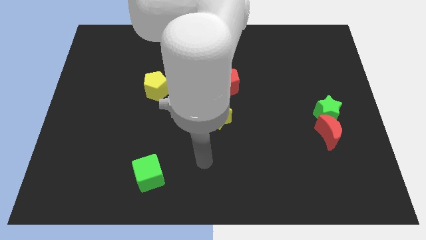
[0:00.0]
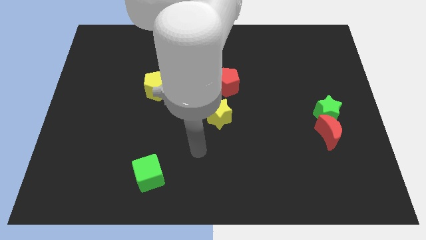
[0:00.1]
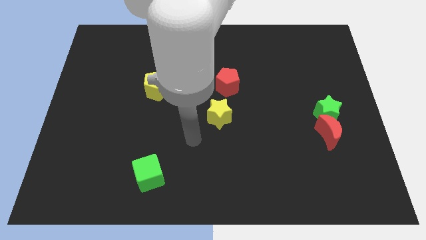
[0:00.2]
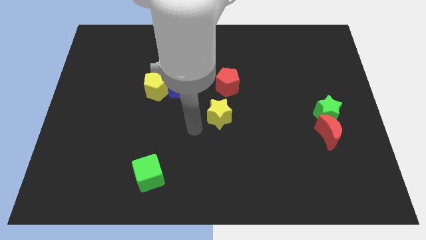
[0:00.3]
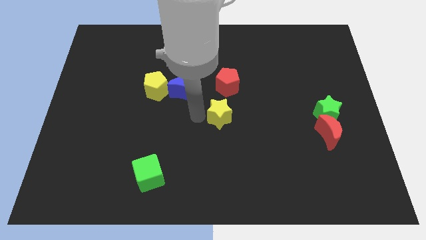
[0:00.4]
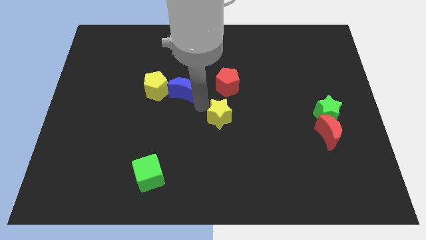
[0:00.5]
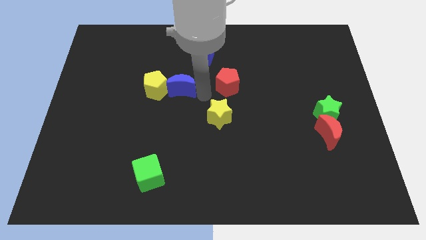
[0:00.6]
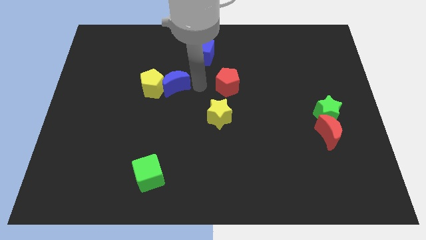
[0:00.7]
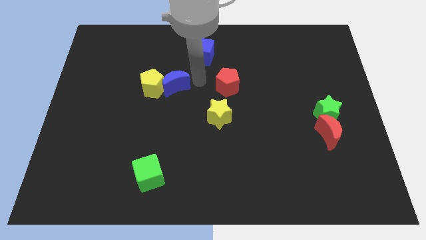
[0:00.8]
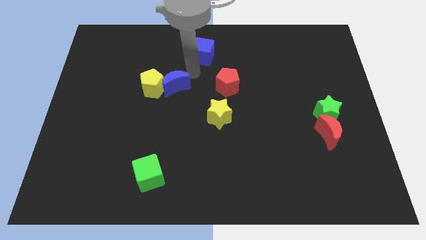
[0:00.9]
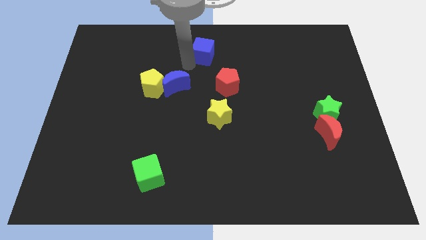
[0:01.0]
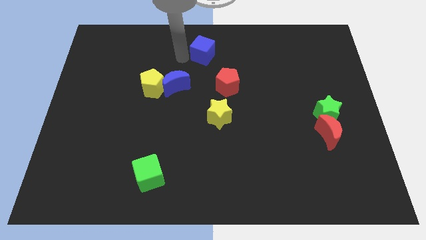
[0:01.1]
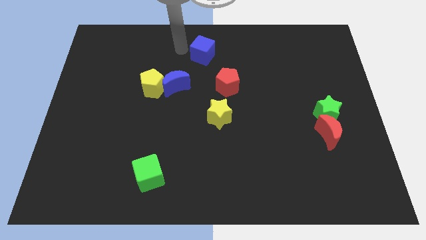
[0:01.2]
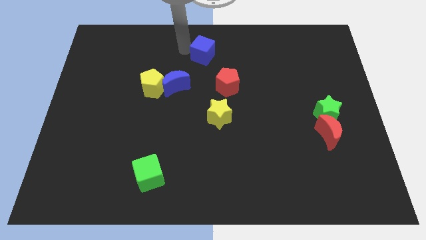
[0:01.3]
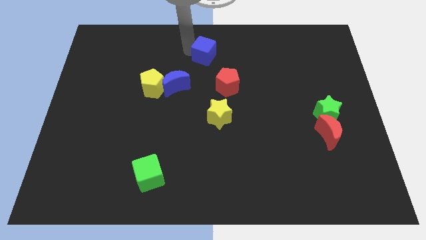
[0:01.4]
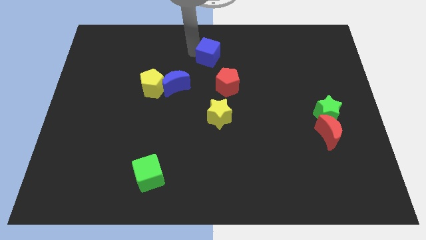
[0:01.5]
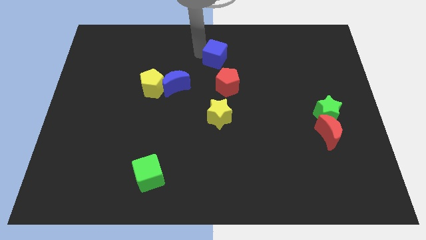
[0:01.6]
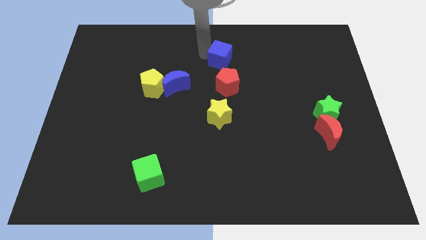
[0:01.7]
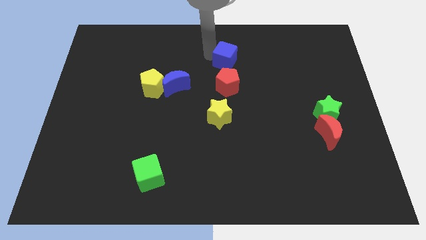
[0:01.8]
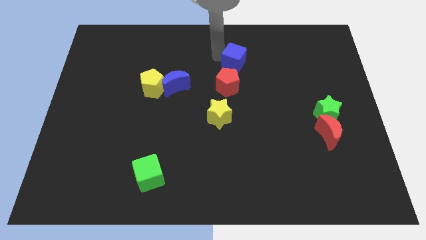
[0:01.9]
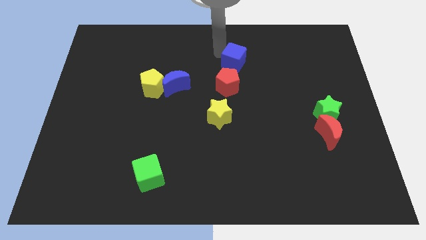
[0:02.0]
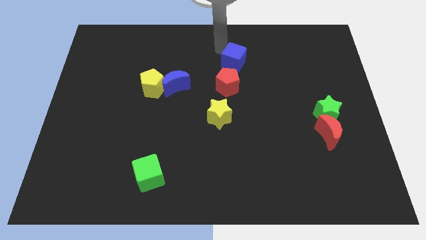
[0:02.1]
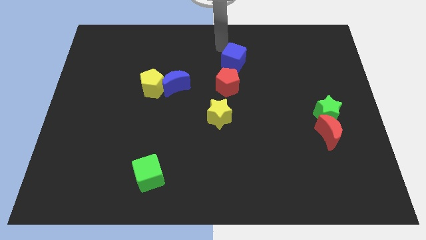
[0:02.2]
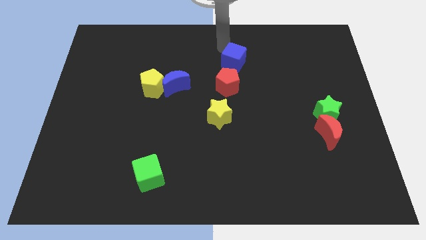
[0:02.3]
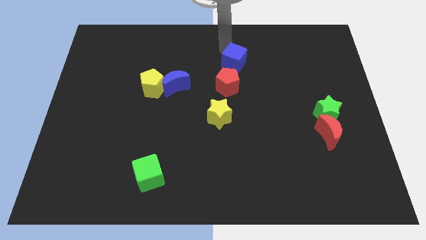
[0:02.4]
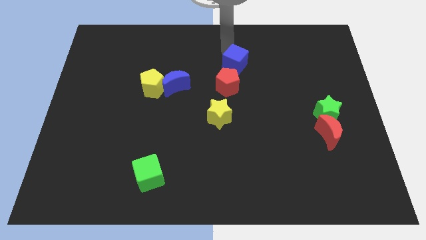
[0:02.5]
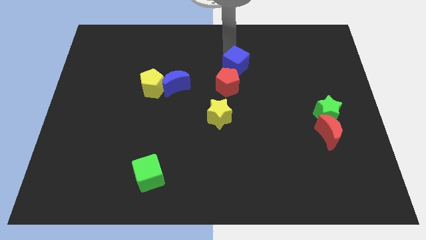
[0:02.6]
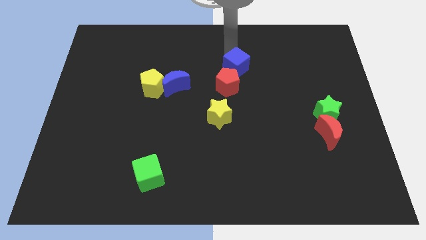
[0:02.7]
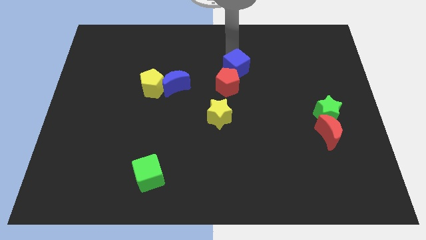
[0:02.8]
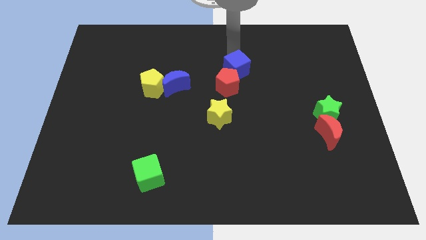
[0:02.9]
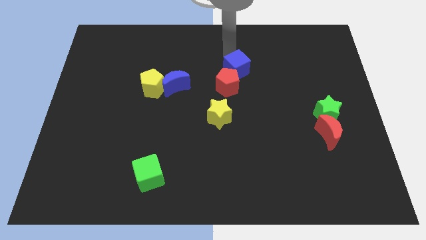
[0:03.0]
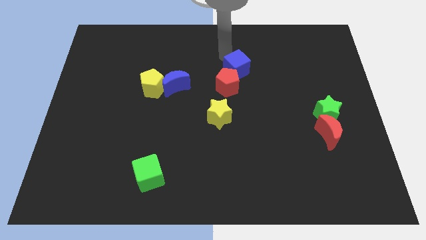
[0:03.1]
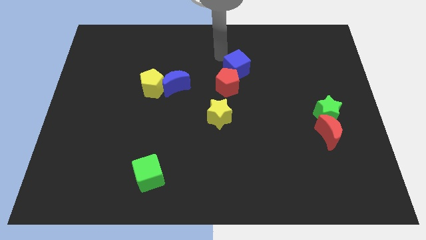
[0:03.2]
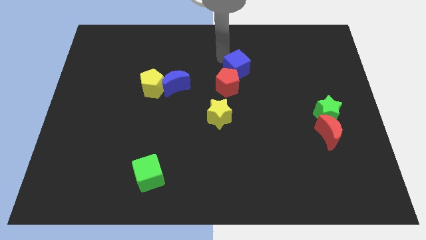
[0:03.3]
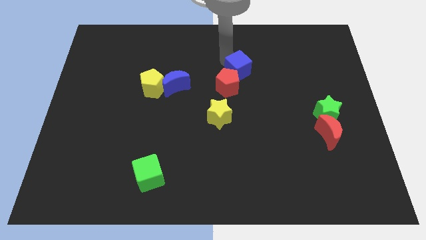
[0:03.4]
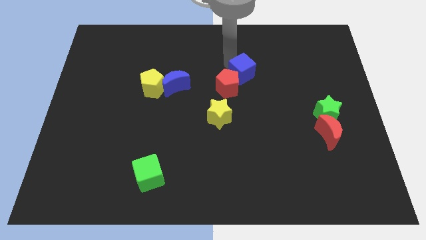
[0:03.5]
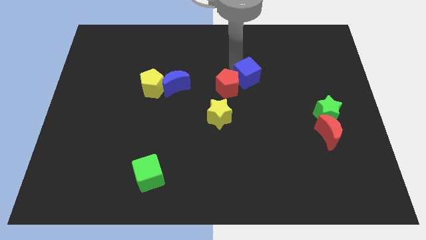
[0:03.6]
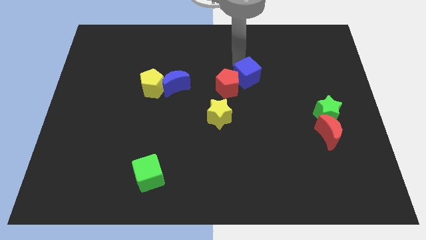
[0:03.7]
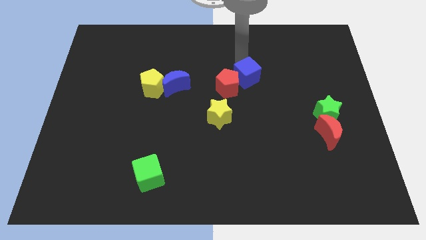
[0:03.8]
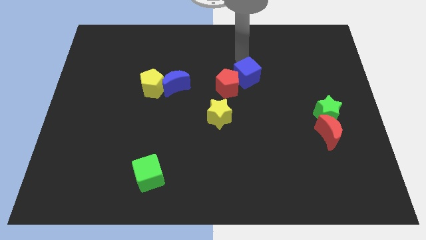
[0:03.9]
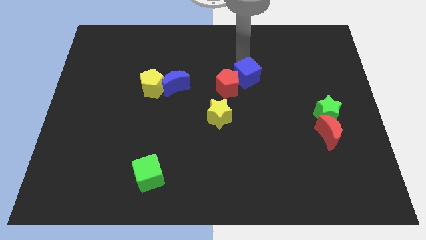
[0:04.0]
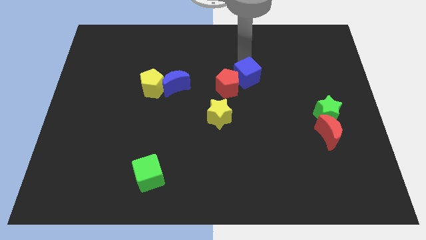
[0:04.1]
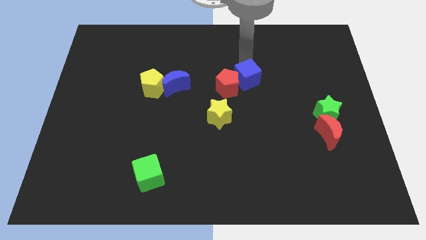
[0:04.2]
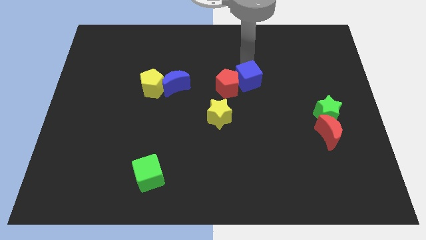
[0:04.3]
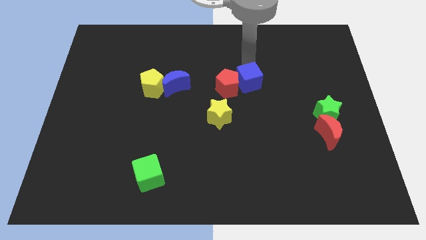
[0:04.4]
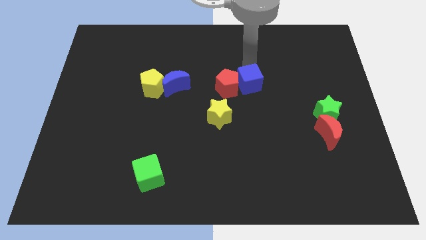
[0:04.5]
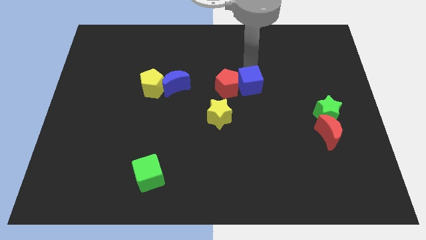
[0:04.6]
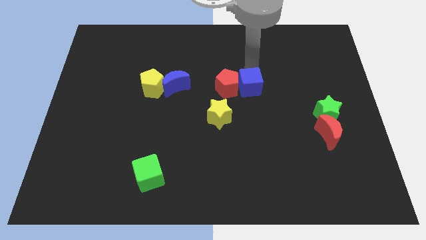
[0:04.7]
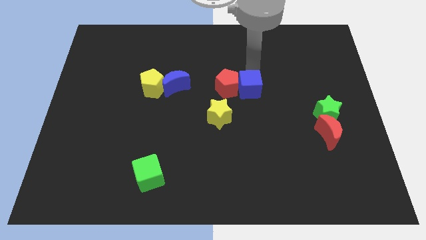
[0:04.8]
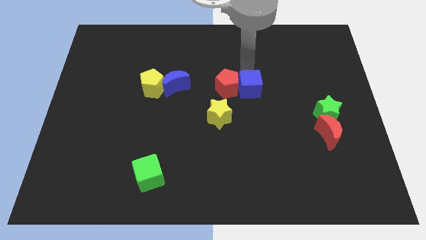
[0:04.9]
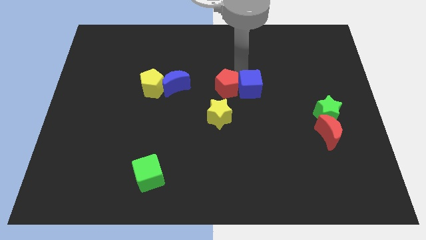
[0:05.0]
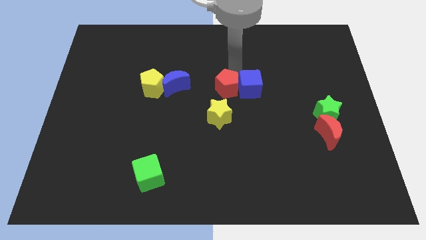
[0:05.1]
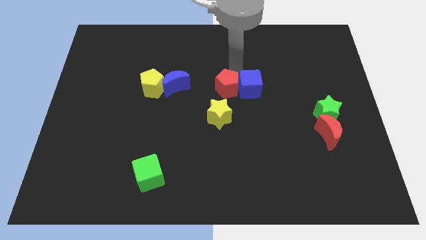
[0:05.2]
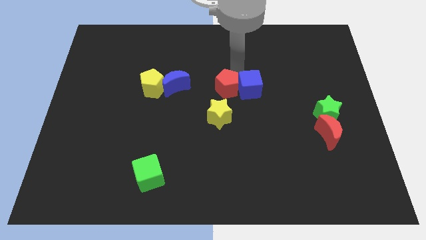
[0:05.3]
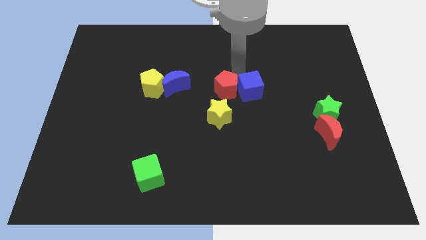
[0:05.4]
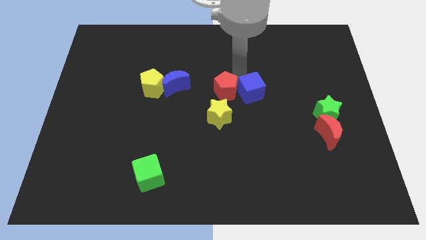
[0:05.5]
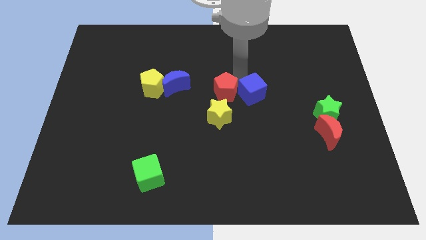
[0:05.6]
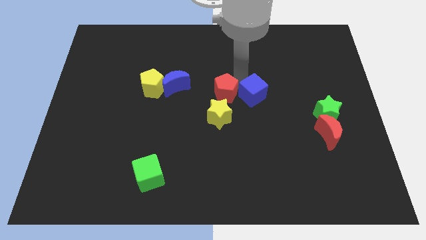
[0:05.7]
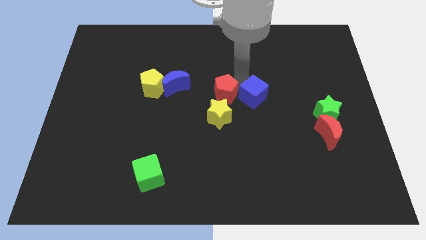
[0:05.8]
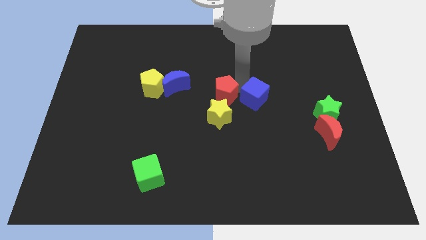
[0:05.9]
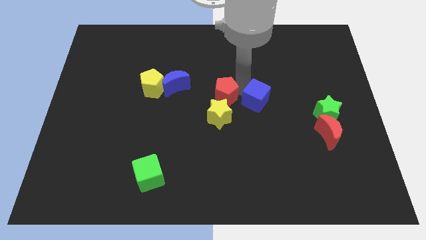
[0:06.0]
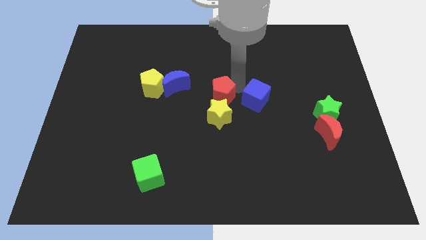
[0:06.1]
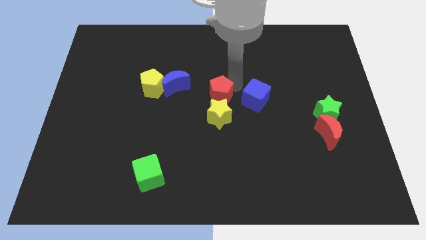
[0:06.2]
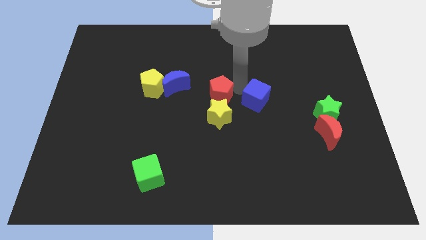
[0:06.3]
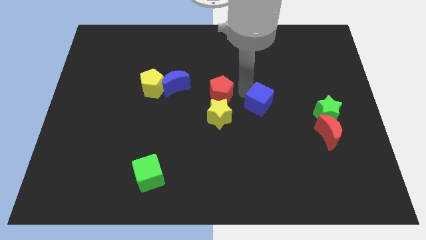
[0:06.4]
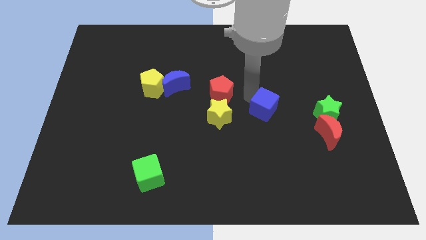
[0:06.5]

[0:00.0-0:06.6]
move the blue cube to the left of the green star

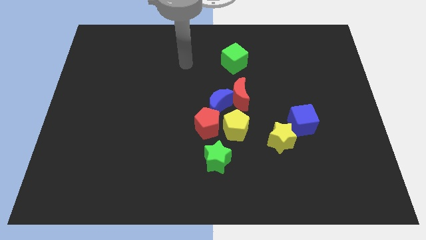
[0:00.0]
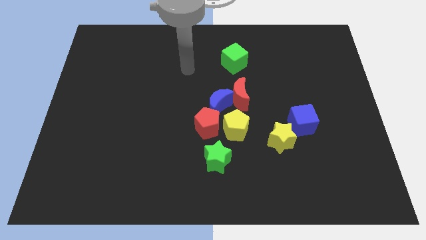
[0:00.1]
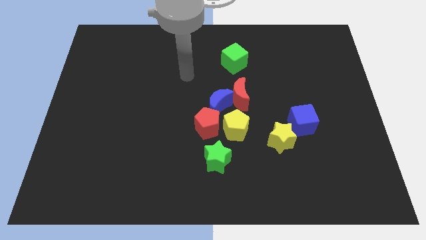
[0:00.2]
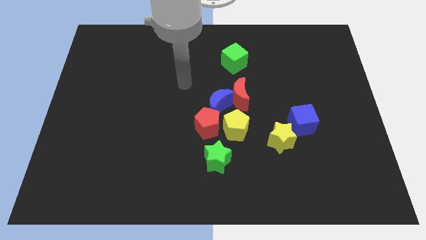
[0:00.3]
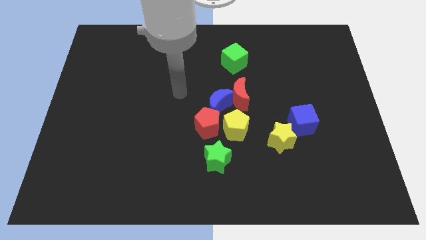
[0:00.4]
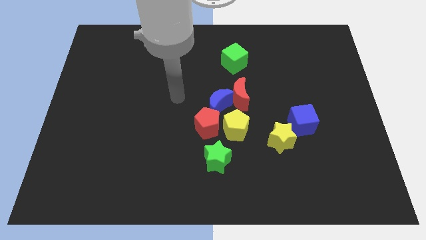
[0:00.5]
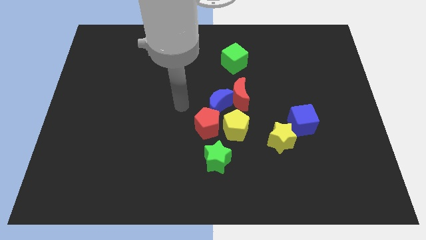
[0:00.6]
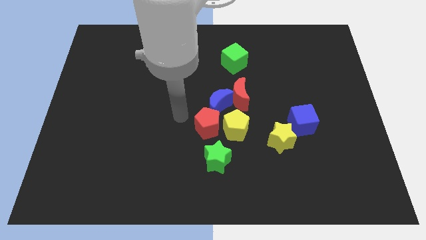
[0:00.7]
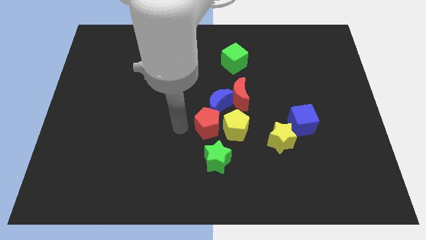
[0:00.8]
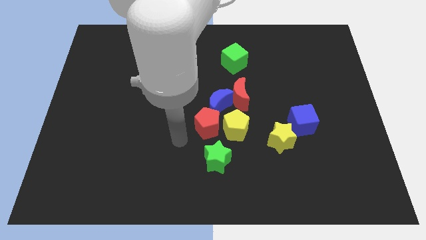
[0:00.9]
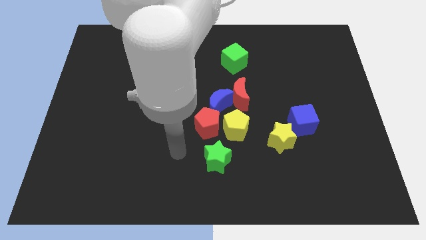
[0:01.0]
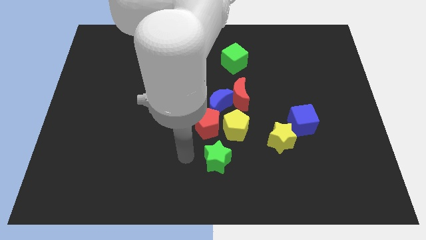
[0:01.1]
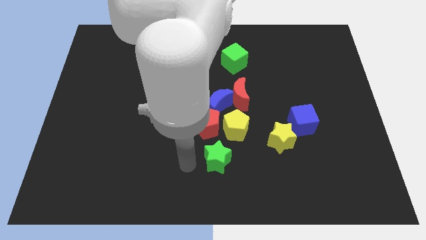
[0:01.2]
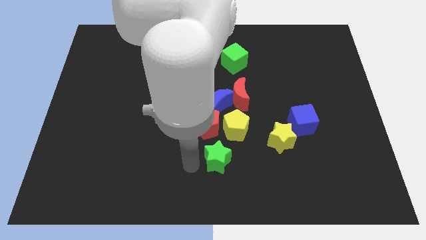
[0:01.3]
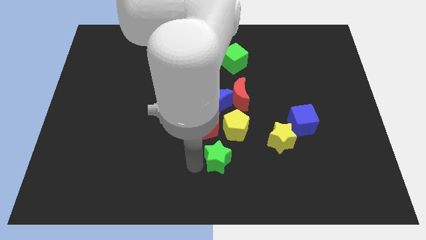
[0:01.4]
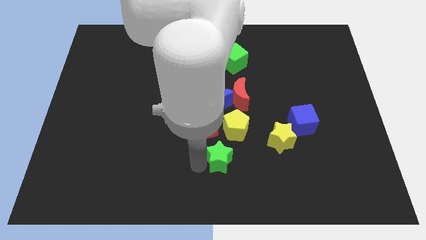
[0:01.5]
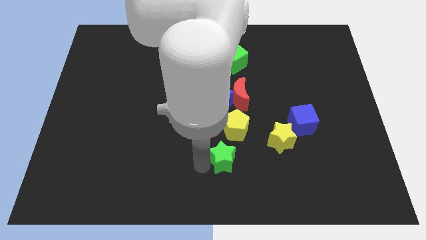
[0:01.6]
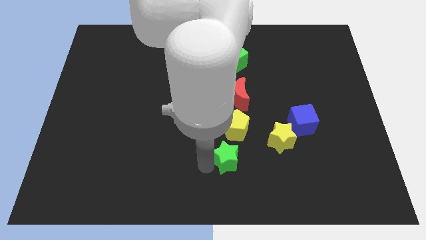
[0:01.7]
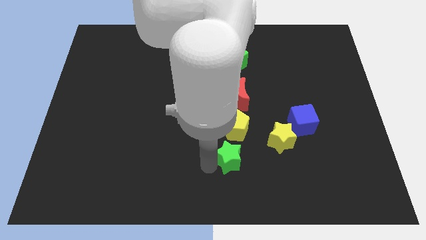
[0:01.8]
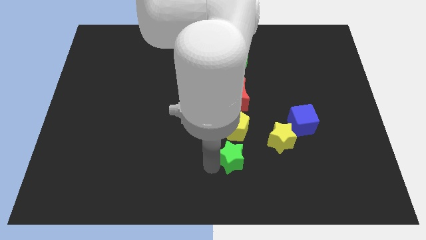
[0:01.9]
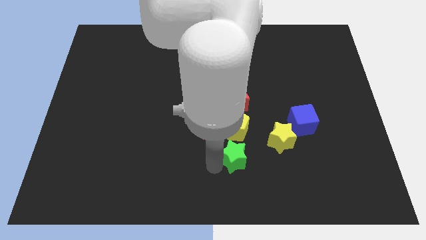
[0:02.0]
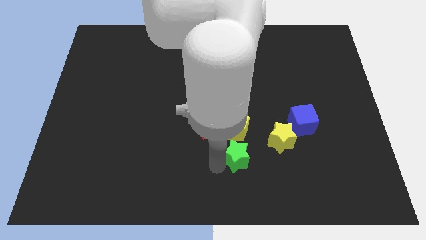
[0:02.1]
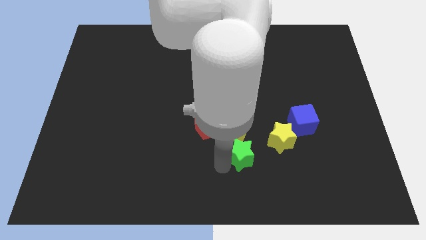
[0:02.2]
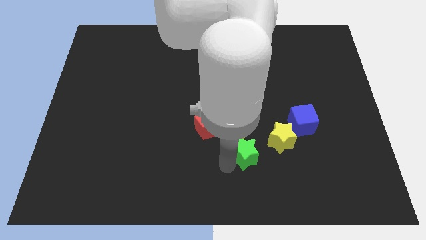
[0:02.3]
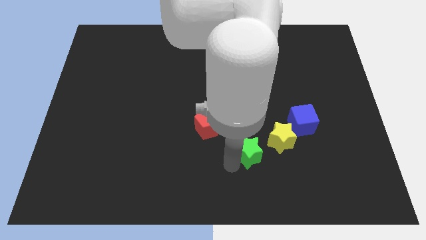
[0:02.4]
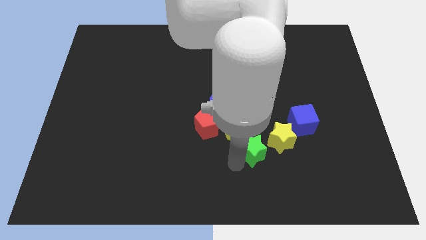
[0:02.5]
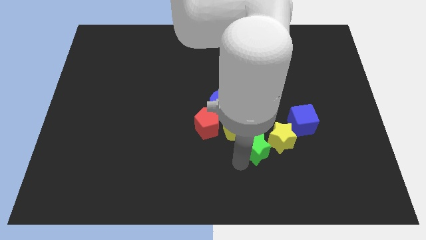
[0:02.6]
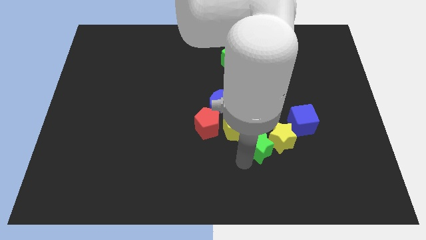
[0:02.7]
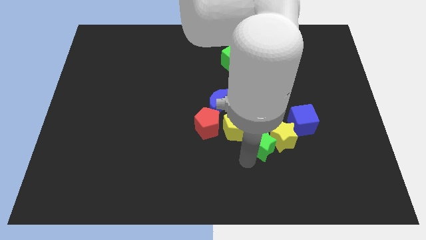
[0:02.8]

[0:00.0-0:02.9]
push the green star diagonally up and to the left of the yellow star
